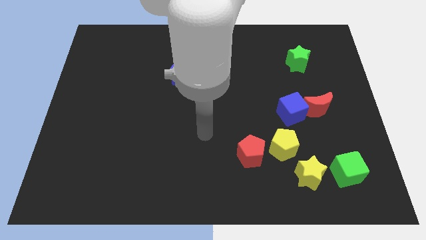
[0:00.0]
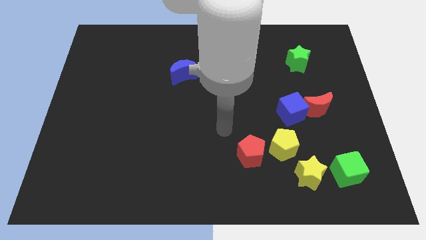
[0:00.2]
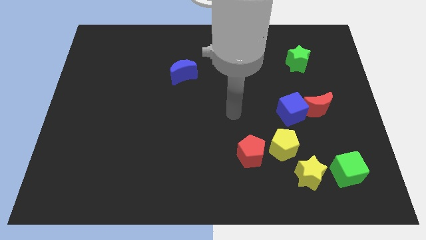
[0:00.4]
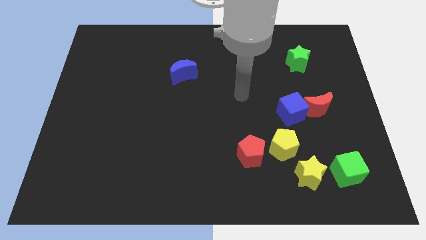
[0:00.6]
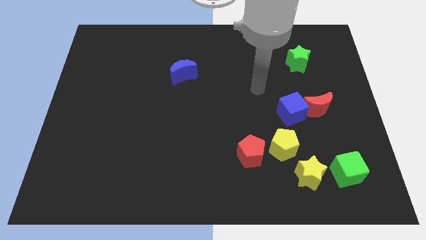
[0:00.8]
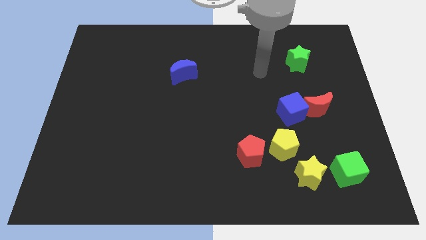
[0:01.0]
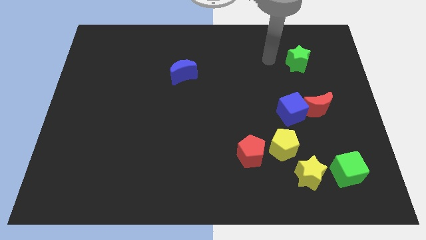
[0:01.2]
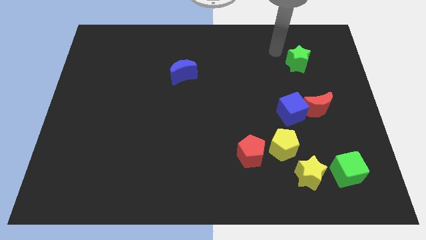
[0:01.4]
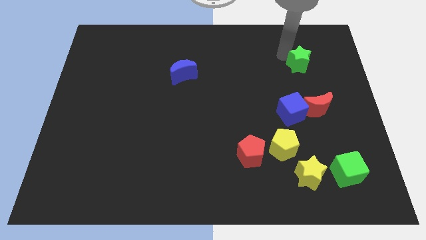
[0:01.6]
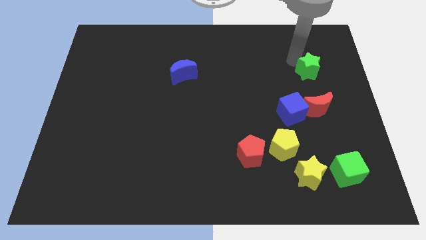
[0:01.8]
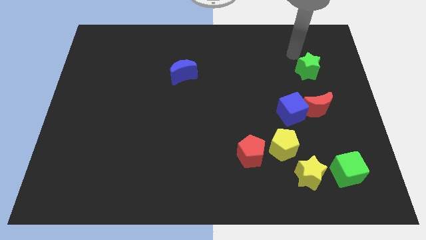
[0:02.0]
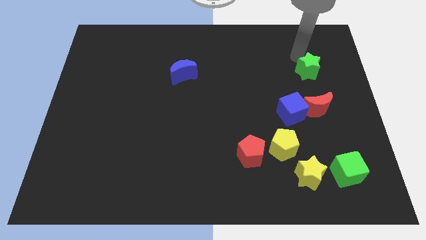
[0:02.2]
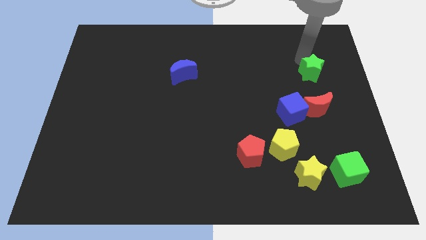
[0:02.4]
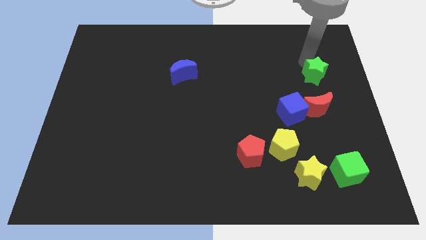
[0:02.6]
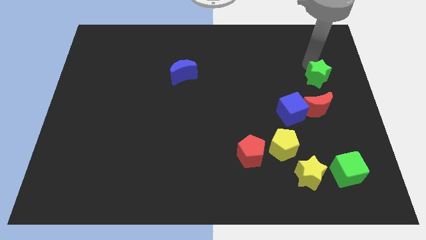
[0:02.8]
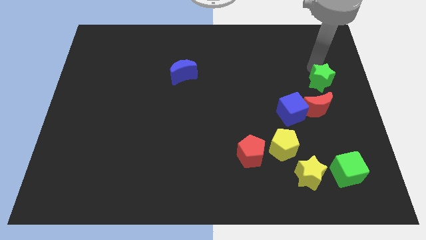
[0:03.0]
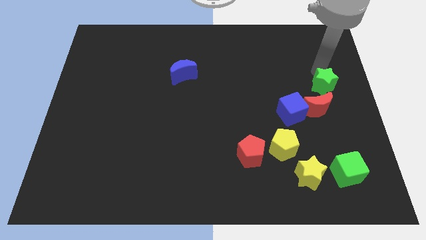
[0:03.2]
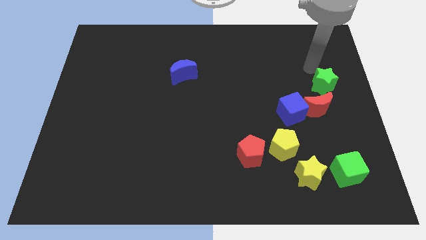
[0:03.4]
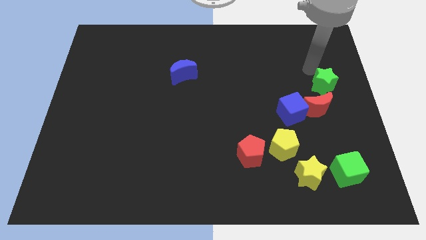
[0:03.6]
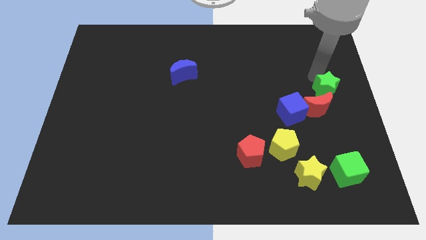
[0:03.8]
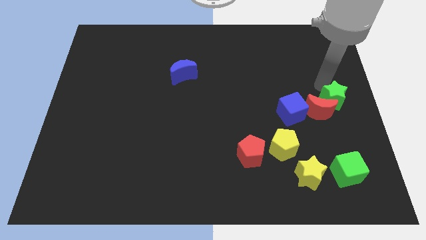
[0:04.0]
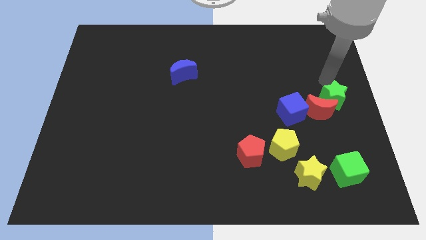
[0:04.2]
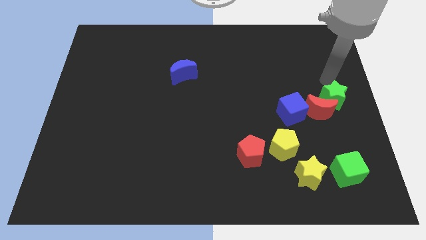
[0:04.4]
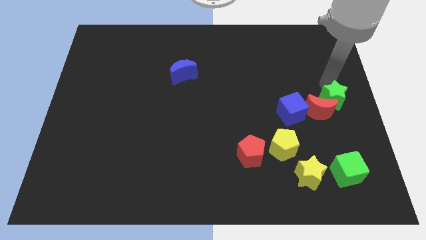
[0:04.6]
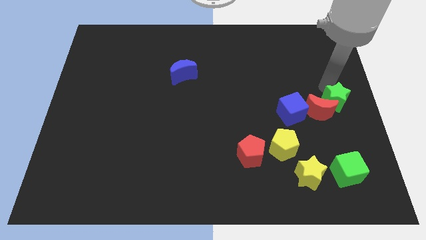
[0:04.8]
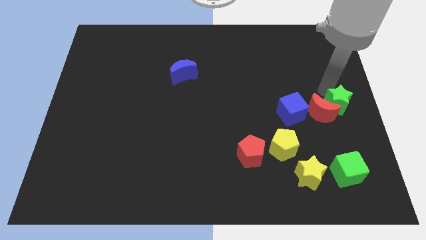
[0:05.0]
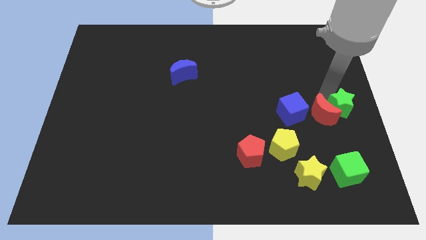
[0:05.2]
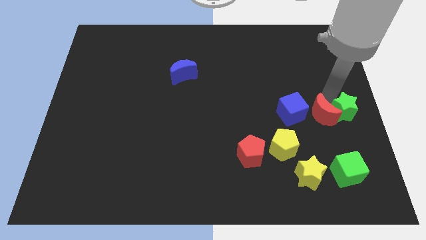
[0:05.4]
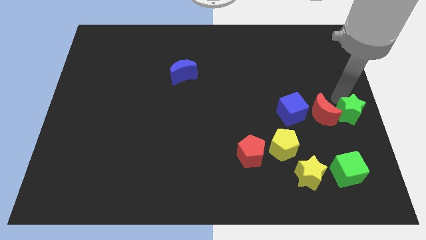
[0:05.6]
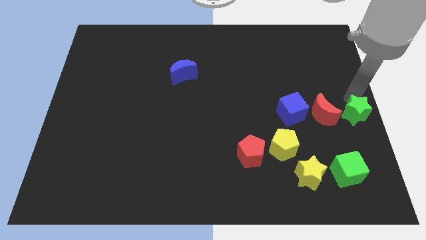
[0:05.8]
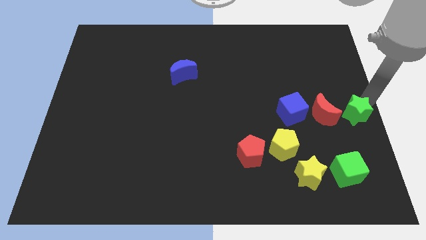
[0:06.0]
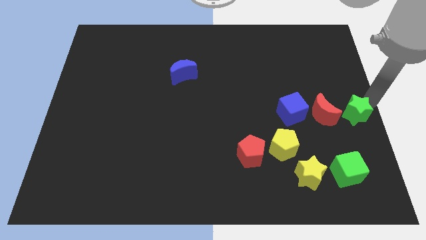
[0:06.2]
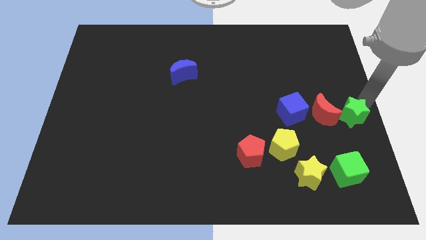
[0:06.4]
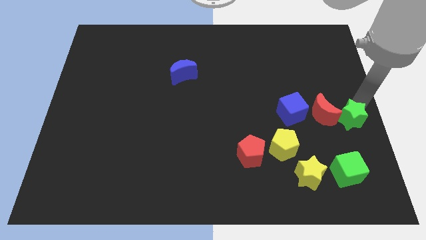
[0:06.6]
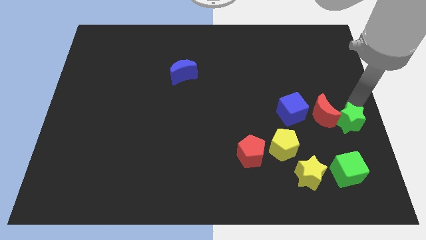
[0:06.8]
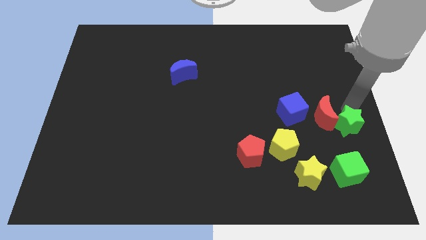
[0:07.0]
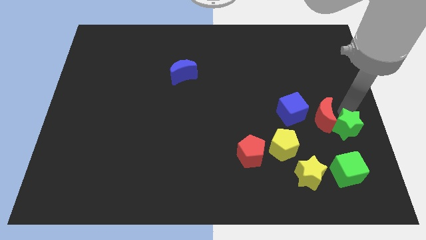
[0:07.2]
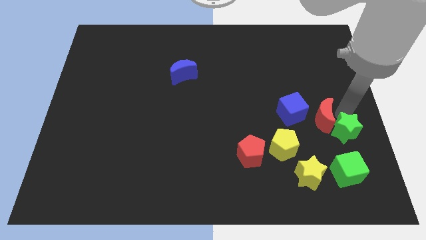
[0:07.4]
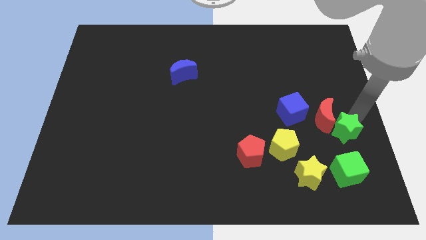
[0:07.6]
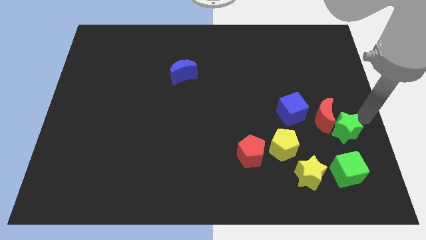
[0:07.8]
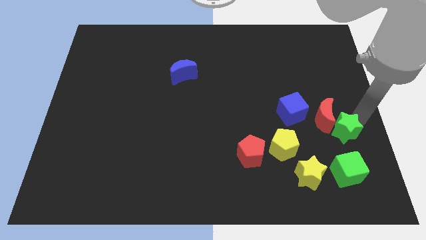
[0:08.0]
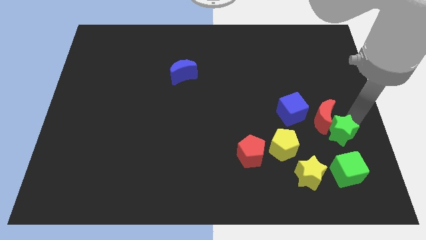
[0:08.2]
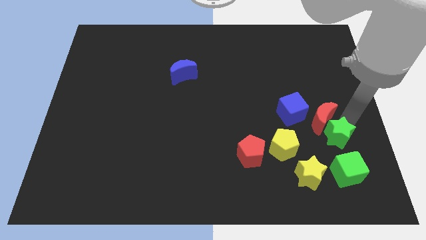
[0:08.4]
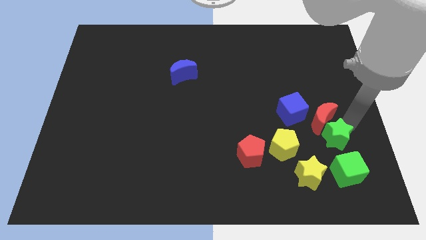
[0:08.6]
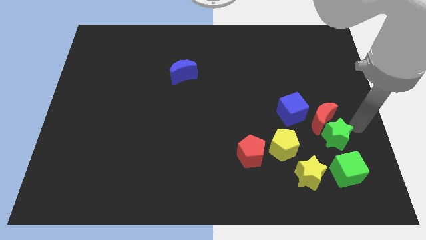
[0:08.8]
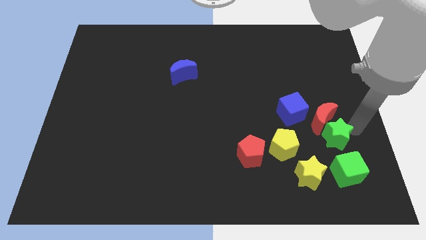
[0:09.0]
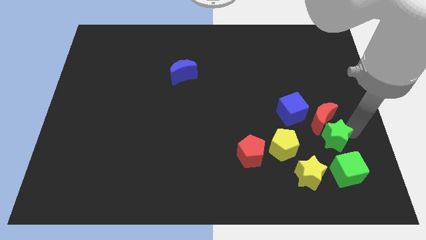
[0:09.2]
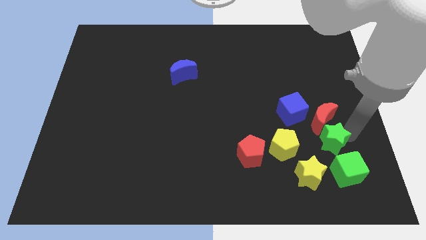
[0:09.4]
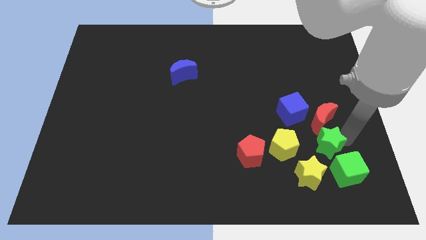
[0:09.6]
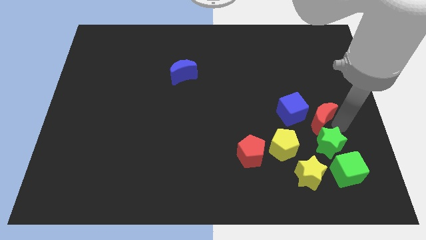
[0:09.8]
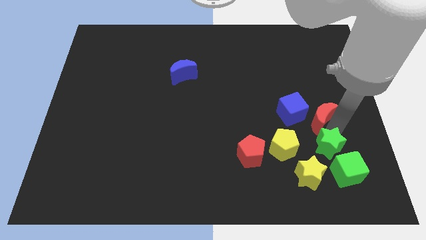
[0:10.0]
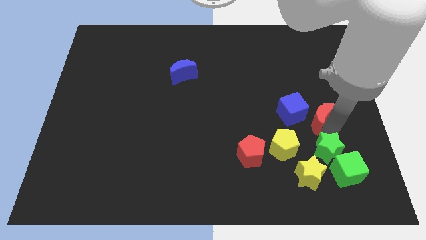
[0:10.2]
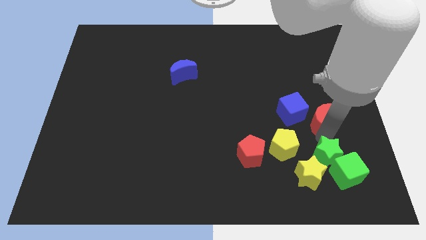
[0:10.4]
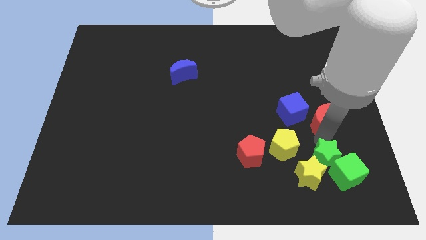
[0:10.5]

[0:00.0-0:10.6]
put the green star close to the yellow star

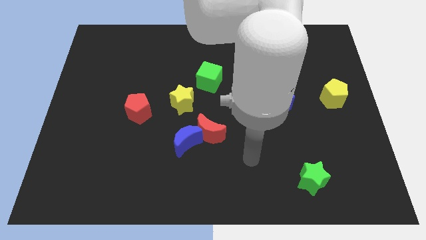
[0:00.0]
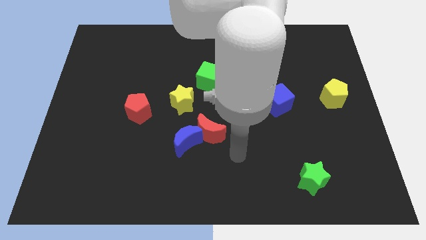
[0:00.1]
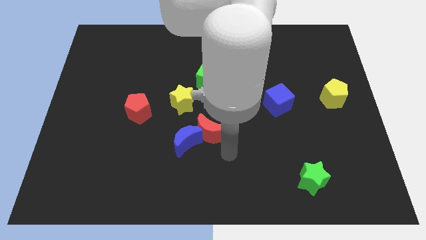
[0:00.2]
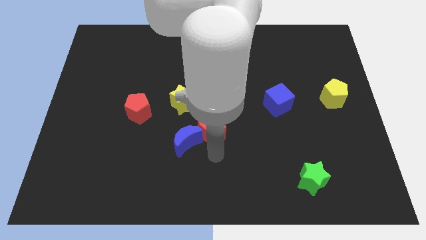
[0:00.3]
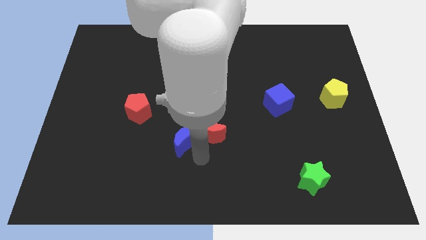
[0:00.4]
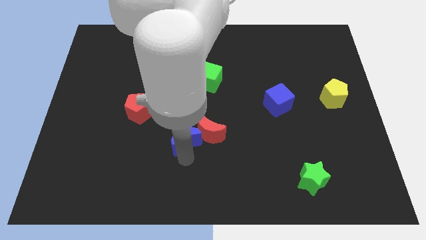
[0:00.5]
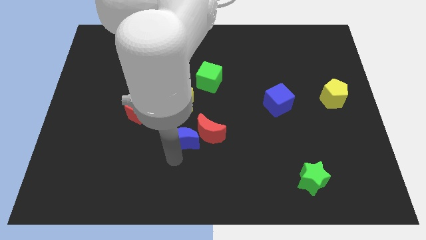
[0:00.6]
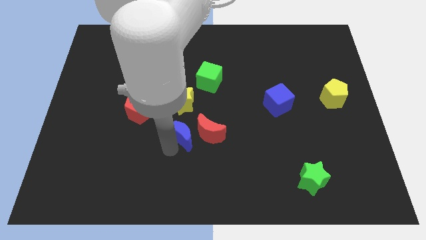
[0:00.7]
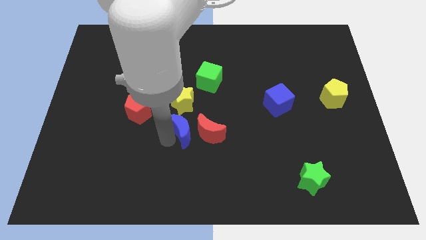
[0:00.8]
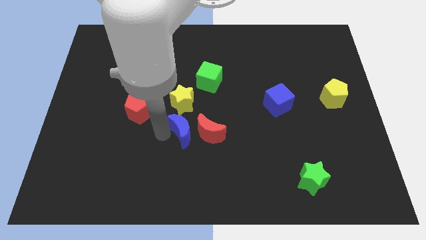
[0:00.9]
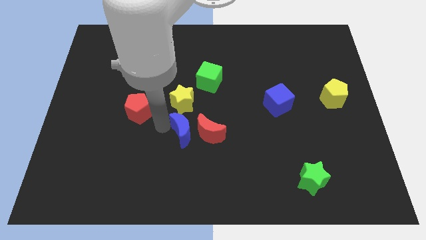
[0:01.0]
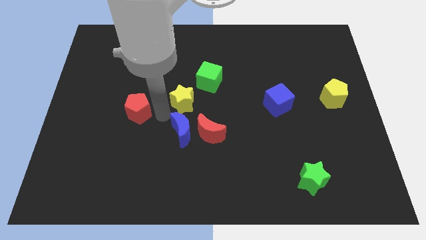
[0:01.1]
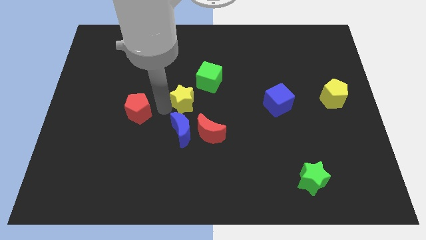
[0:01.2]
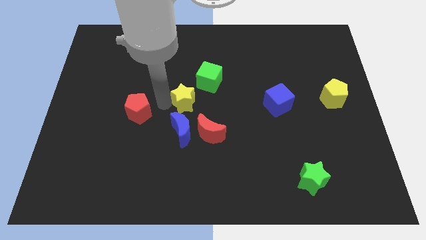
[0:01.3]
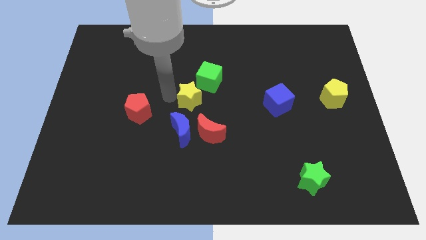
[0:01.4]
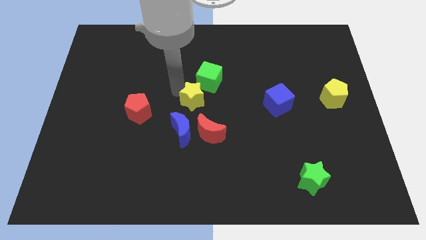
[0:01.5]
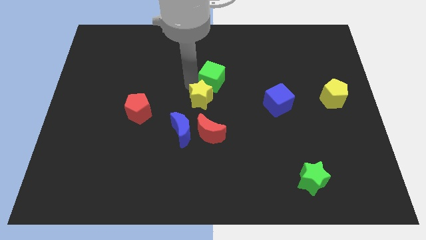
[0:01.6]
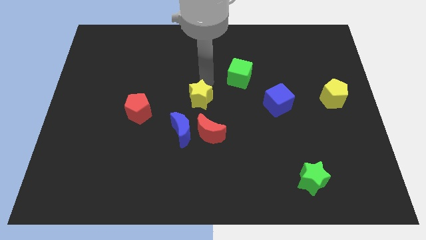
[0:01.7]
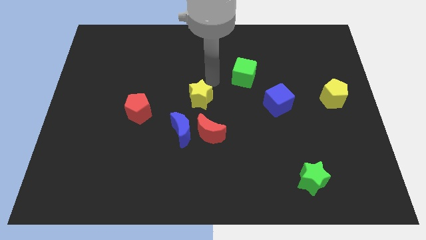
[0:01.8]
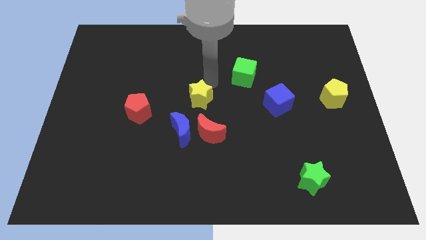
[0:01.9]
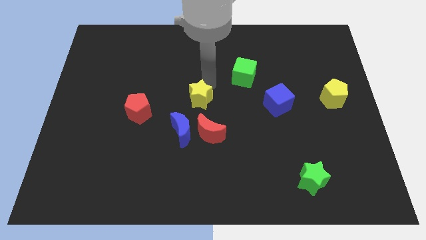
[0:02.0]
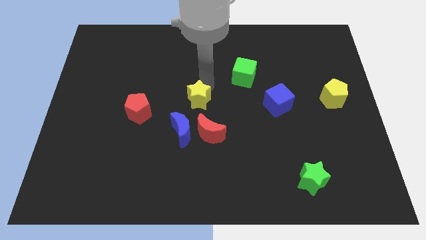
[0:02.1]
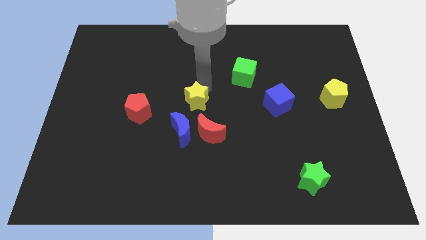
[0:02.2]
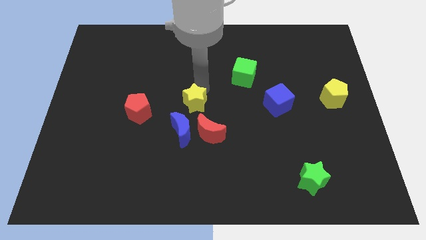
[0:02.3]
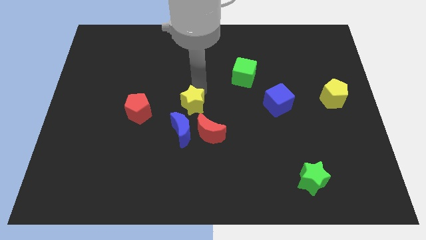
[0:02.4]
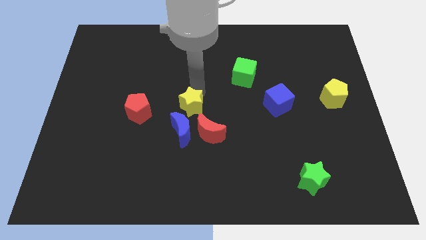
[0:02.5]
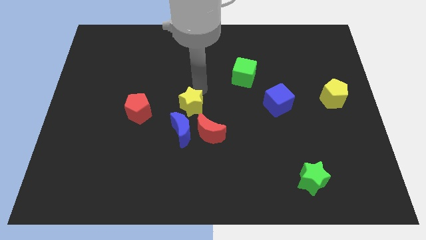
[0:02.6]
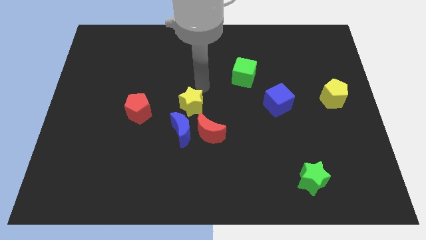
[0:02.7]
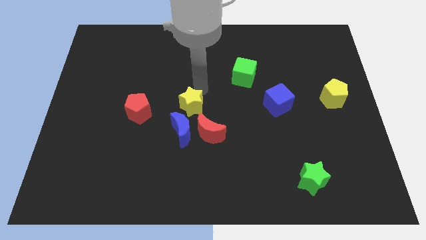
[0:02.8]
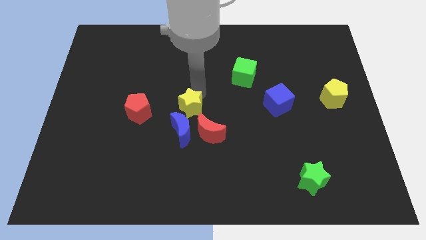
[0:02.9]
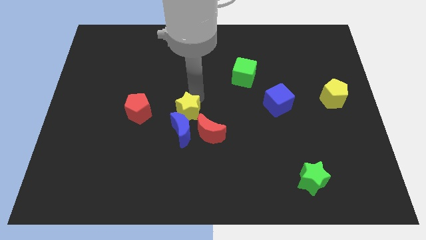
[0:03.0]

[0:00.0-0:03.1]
slide the yellow star towards the blue moon
